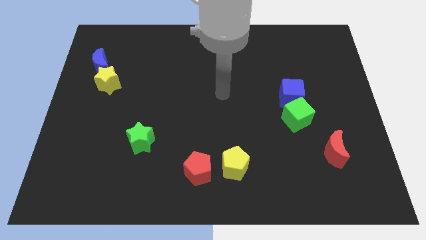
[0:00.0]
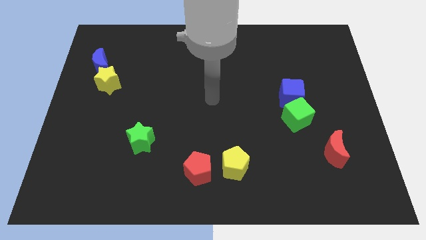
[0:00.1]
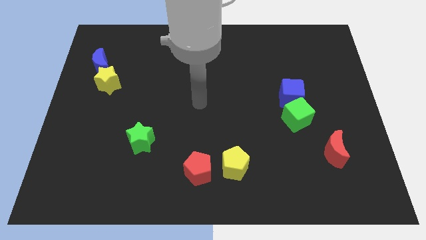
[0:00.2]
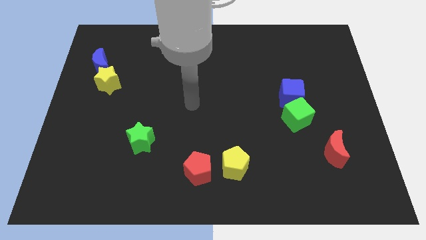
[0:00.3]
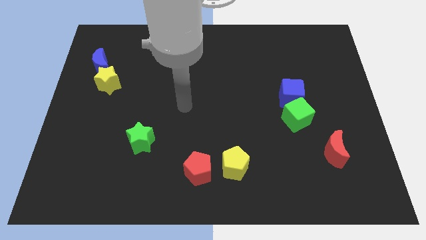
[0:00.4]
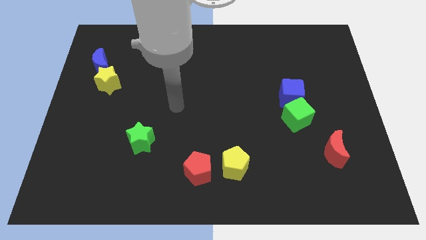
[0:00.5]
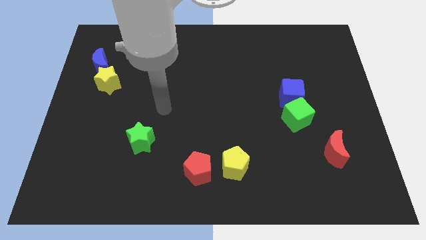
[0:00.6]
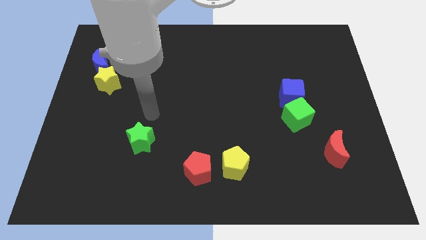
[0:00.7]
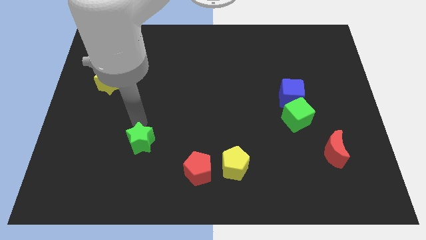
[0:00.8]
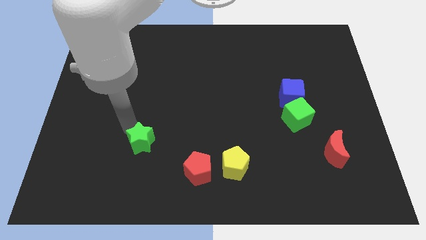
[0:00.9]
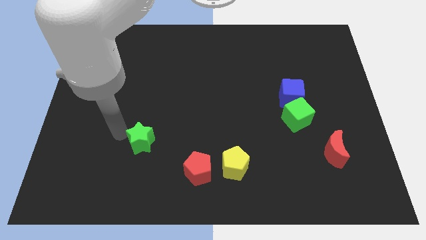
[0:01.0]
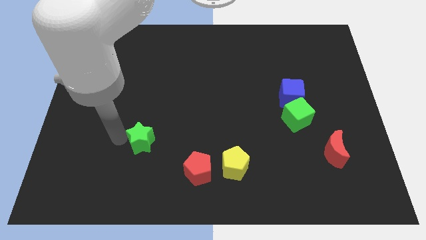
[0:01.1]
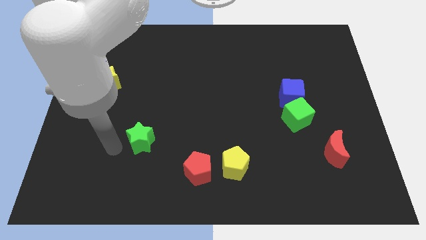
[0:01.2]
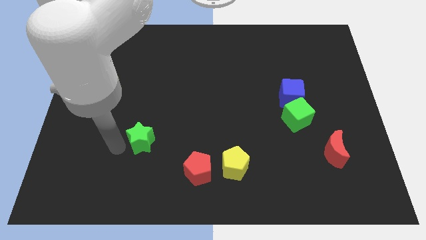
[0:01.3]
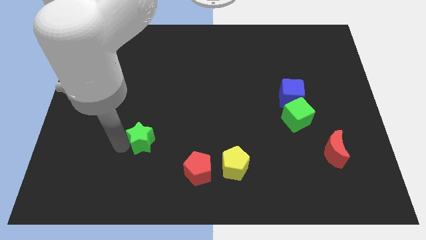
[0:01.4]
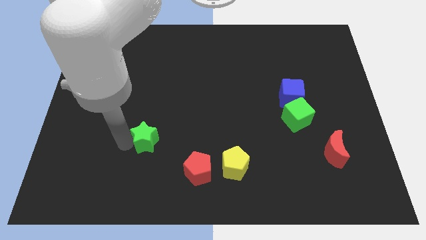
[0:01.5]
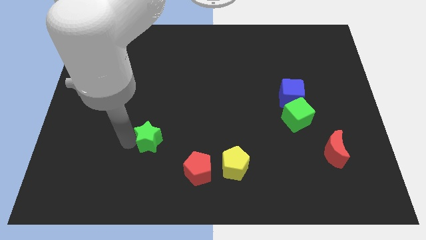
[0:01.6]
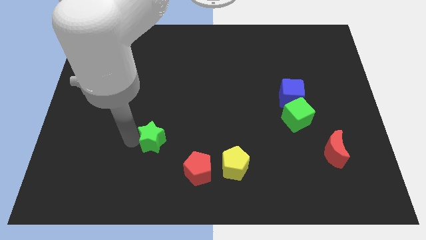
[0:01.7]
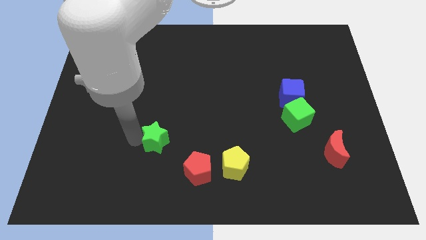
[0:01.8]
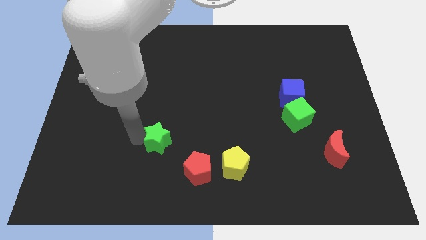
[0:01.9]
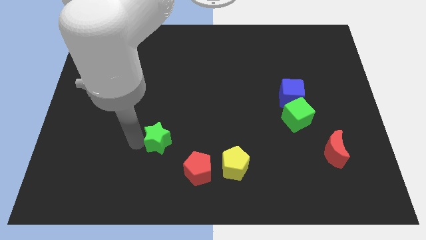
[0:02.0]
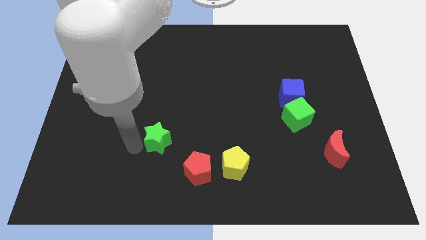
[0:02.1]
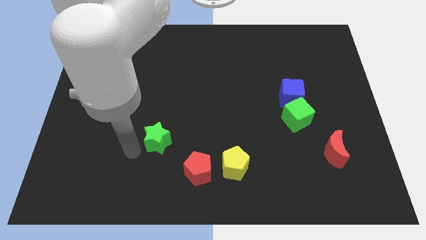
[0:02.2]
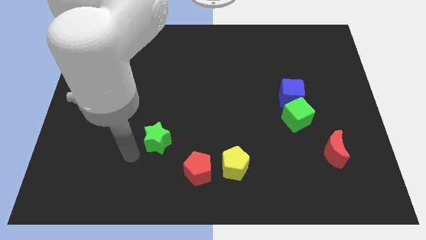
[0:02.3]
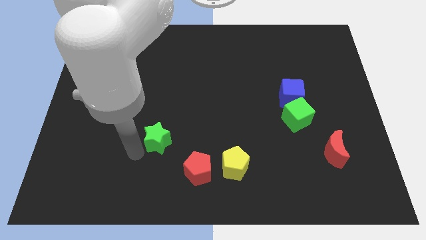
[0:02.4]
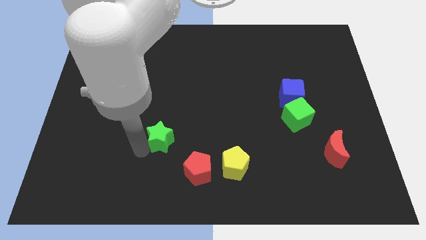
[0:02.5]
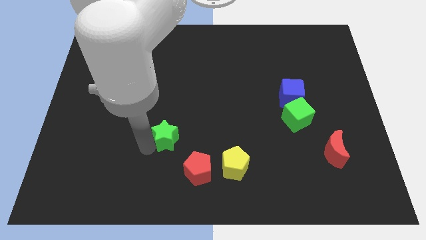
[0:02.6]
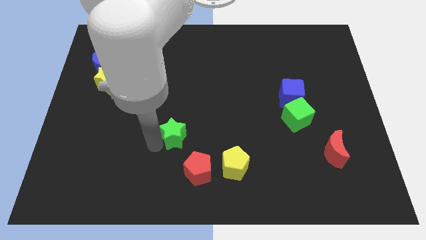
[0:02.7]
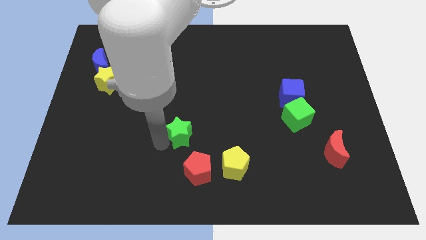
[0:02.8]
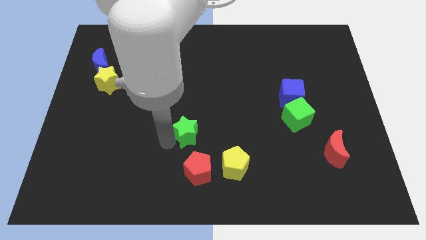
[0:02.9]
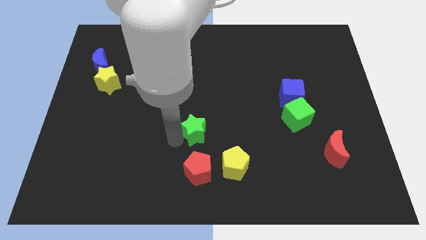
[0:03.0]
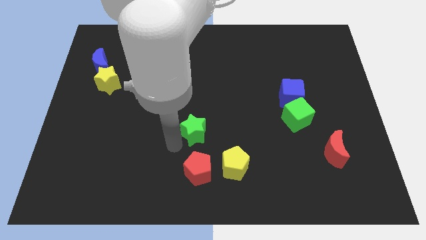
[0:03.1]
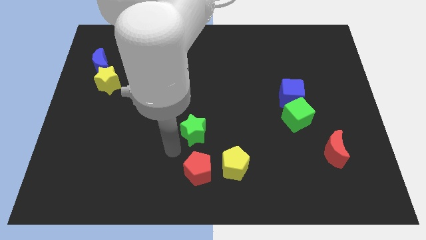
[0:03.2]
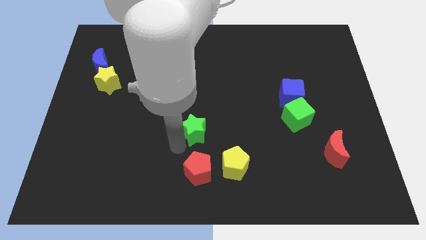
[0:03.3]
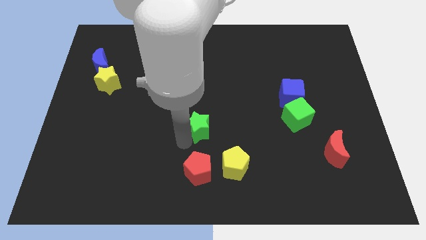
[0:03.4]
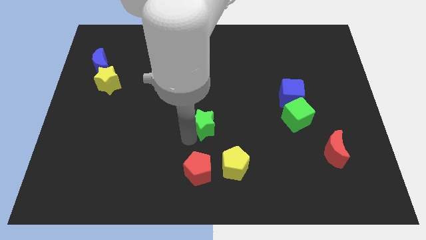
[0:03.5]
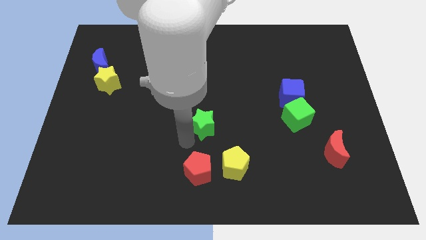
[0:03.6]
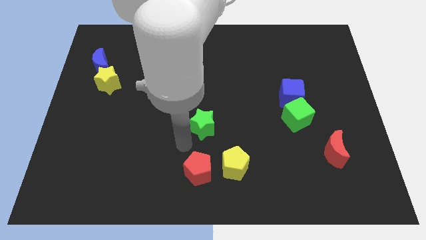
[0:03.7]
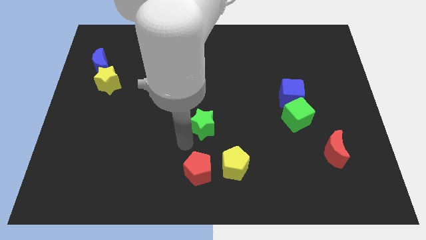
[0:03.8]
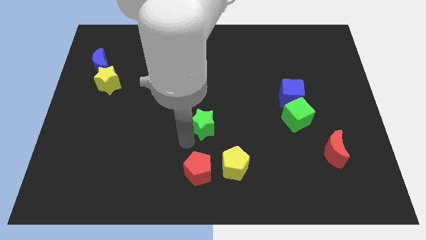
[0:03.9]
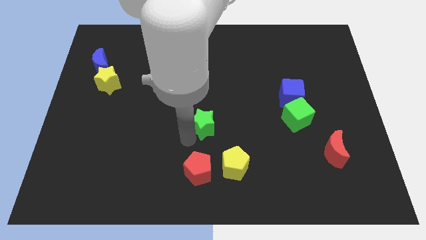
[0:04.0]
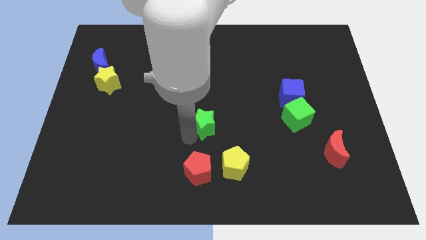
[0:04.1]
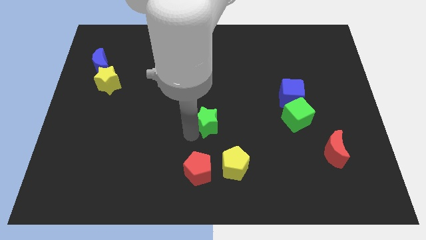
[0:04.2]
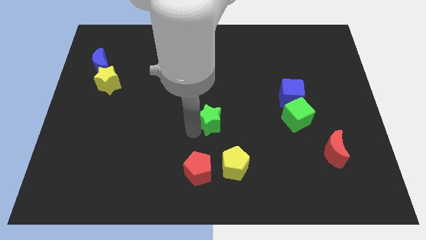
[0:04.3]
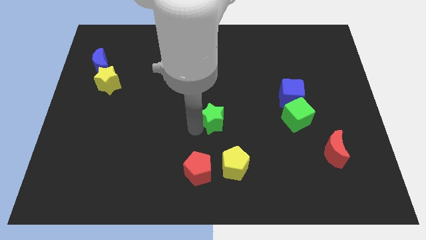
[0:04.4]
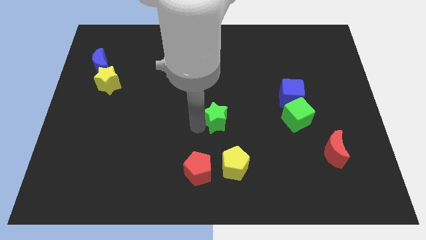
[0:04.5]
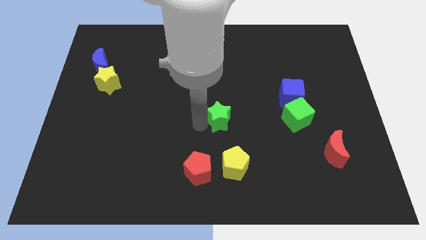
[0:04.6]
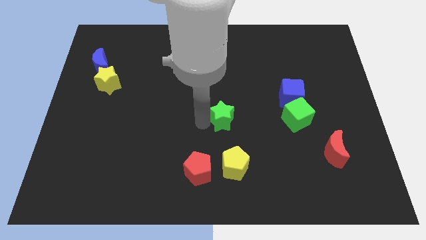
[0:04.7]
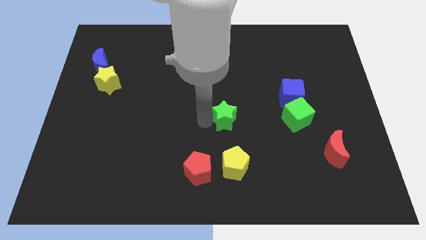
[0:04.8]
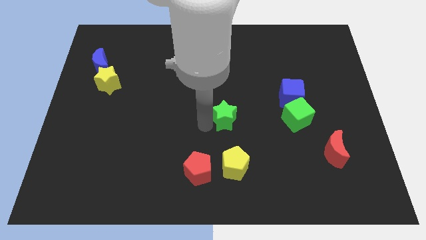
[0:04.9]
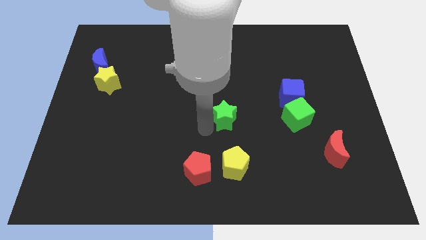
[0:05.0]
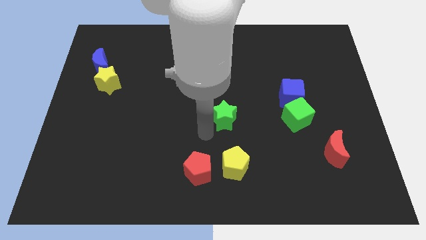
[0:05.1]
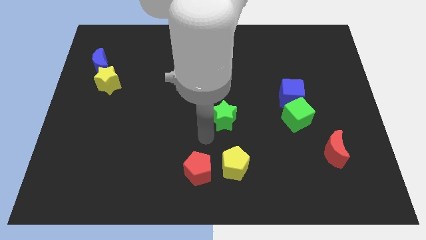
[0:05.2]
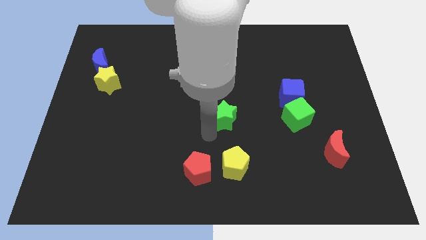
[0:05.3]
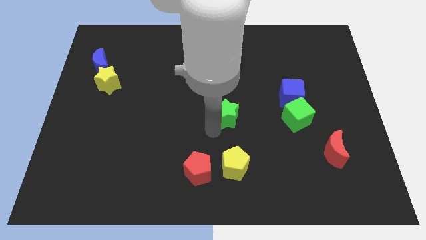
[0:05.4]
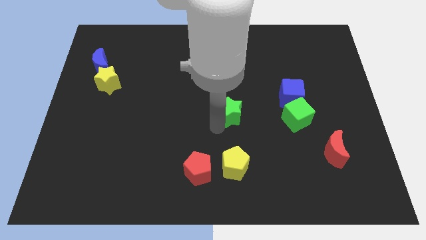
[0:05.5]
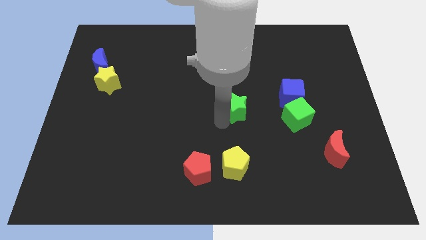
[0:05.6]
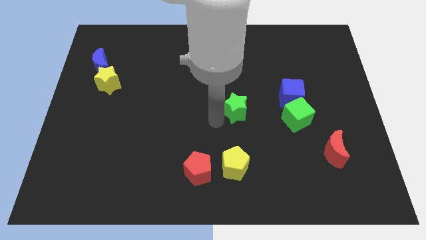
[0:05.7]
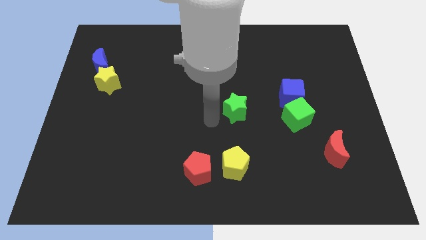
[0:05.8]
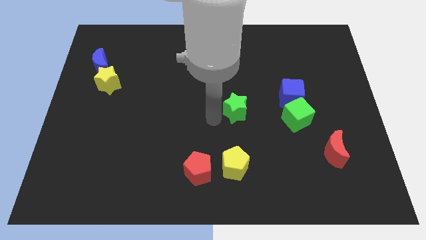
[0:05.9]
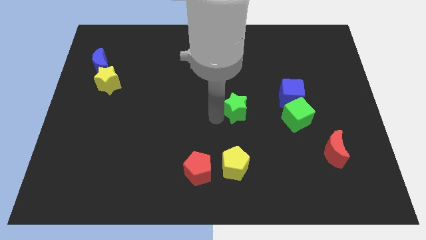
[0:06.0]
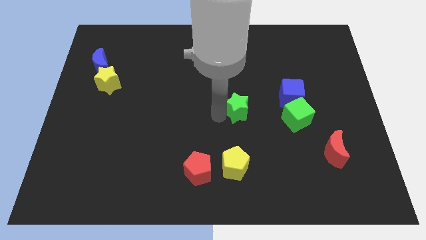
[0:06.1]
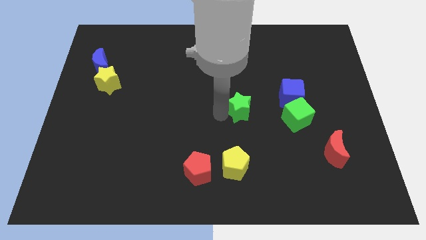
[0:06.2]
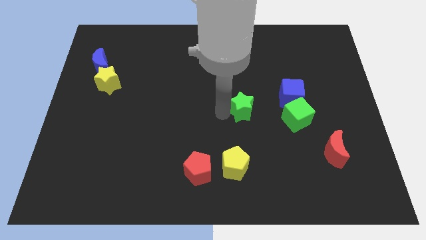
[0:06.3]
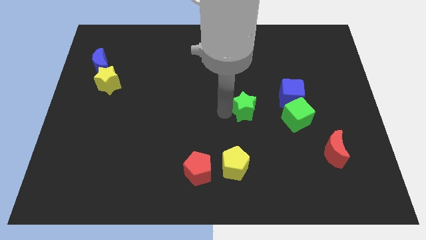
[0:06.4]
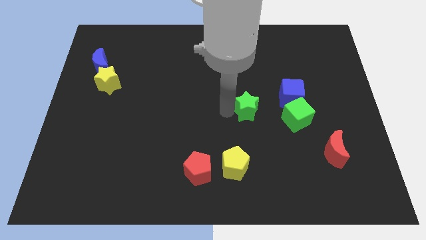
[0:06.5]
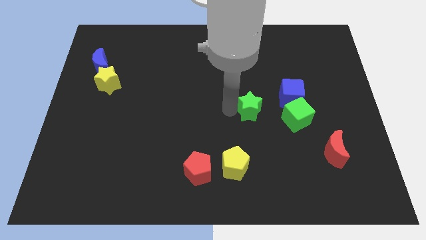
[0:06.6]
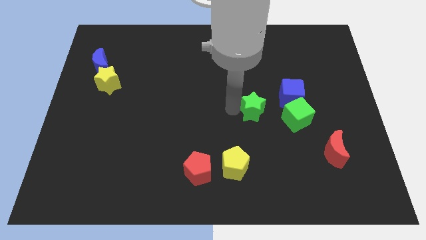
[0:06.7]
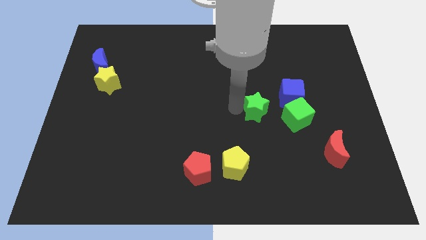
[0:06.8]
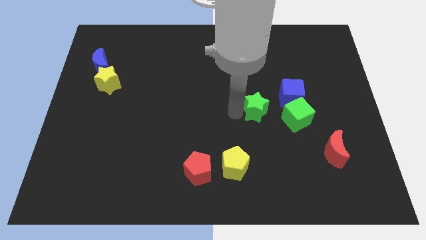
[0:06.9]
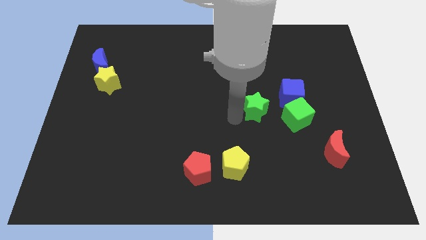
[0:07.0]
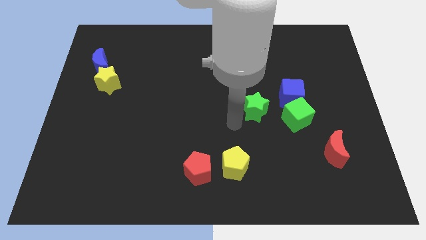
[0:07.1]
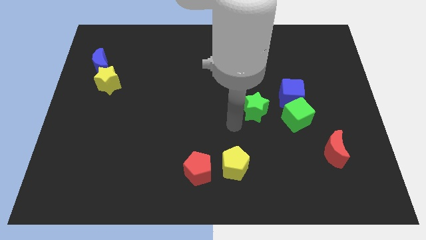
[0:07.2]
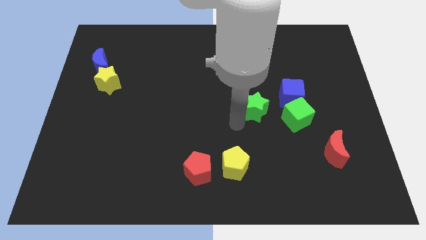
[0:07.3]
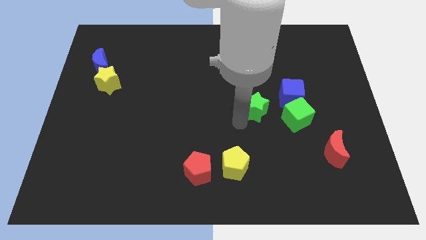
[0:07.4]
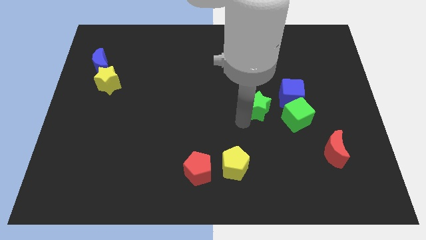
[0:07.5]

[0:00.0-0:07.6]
put the green star to the top left of the green cube
